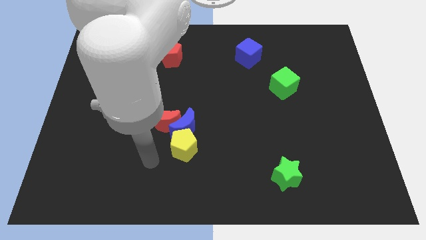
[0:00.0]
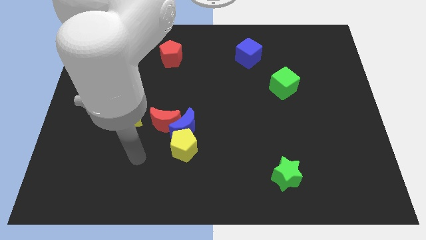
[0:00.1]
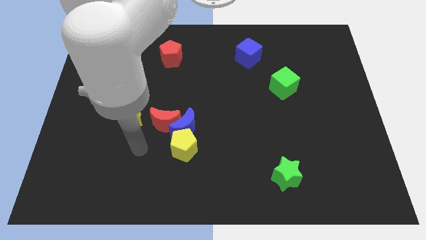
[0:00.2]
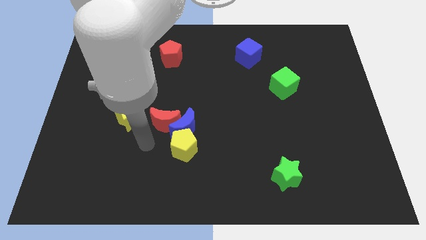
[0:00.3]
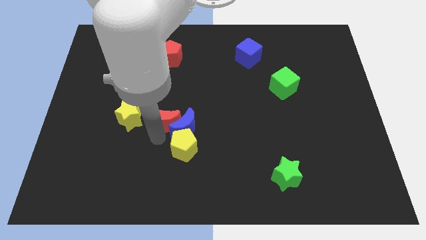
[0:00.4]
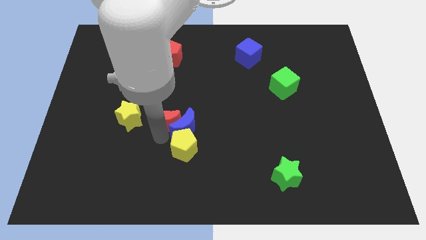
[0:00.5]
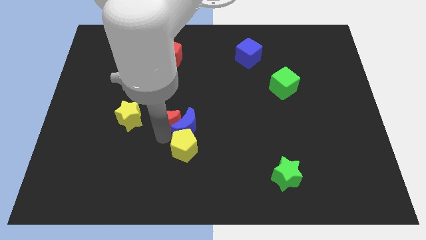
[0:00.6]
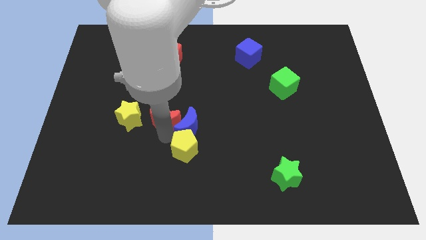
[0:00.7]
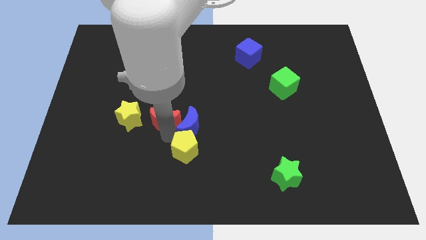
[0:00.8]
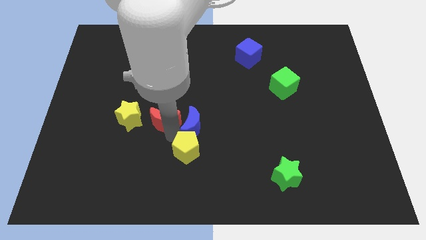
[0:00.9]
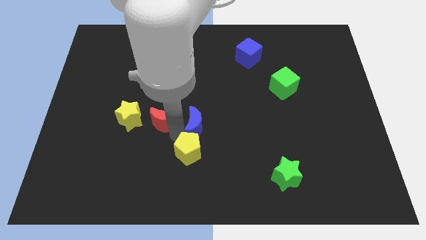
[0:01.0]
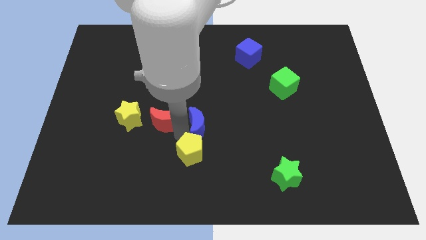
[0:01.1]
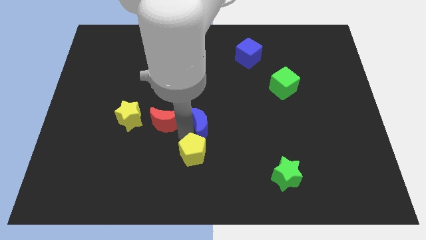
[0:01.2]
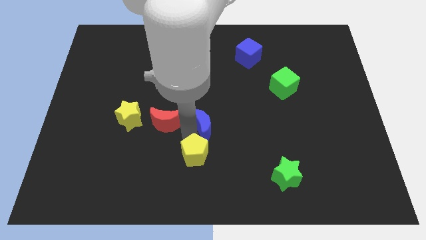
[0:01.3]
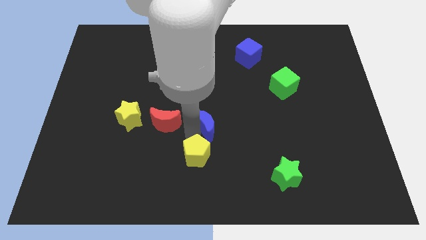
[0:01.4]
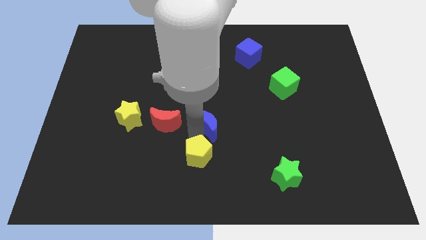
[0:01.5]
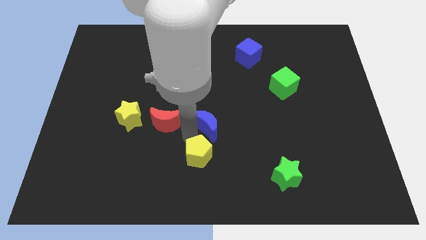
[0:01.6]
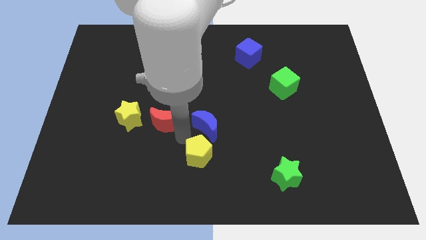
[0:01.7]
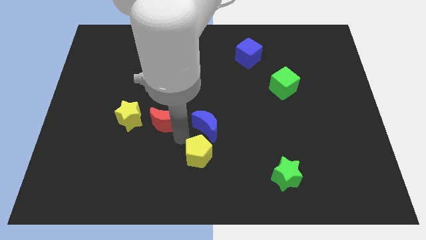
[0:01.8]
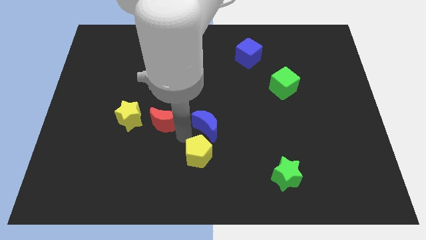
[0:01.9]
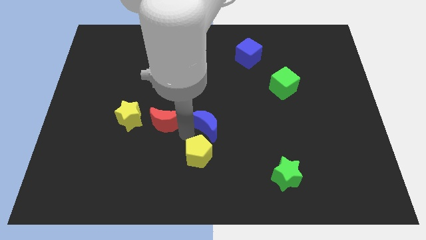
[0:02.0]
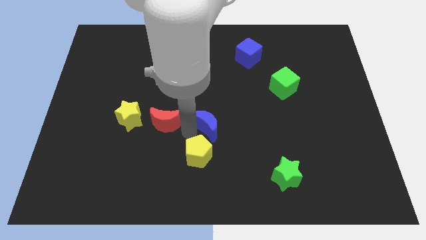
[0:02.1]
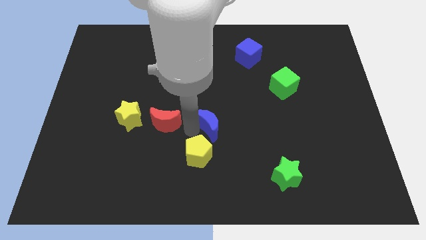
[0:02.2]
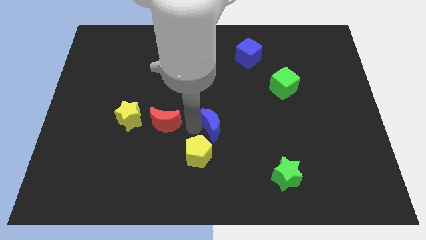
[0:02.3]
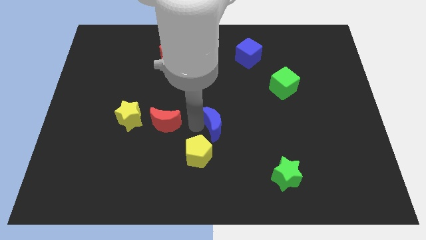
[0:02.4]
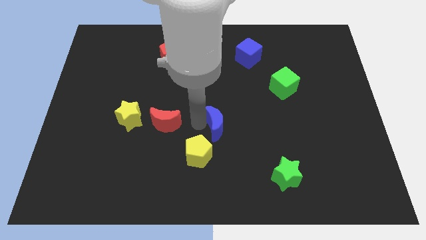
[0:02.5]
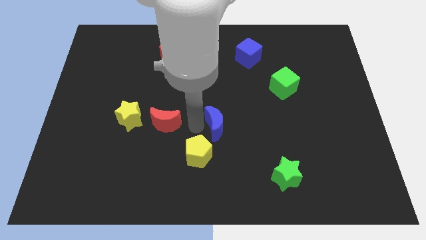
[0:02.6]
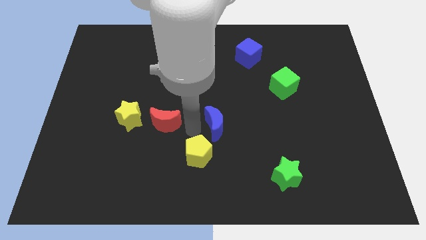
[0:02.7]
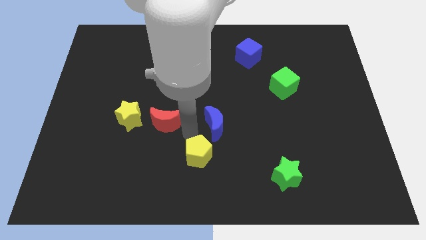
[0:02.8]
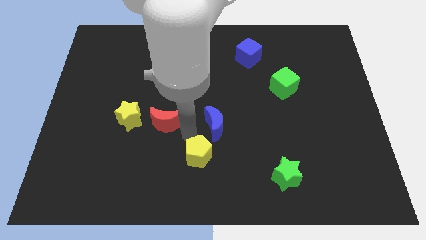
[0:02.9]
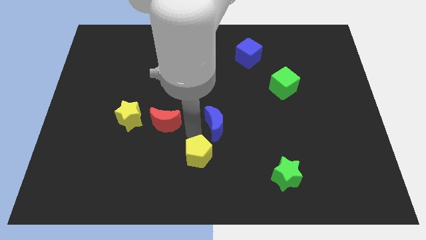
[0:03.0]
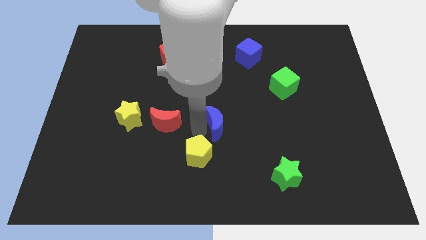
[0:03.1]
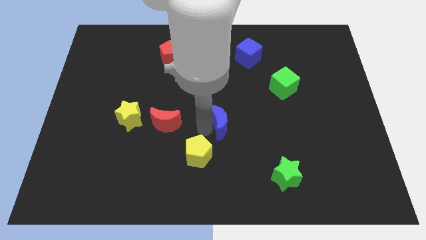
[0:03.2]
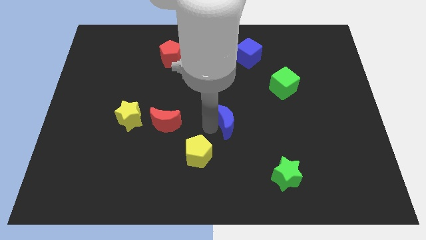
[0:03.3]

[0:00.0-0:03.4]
pull the blue moon apart from the red moon and yellow pentagon

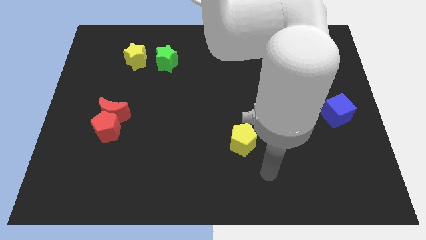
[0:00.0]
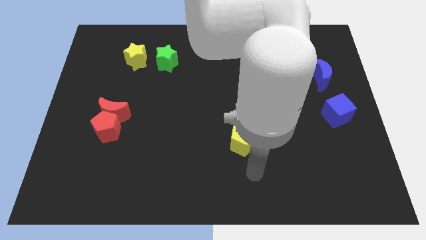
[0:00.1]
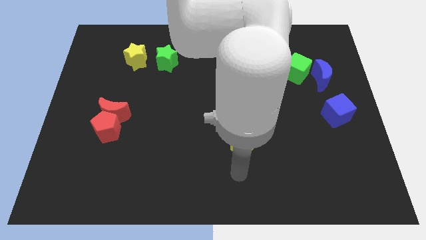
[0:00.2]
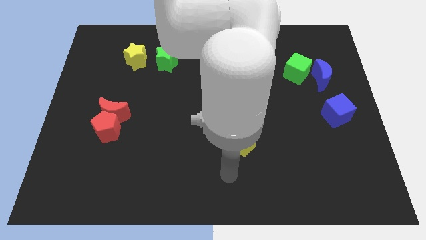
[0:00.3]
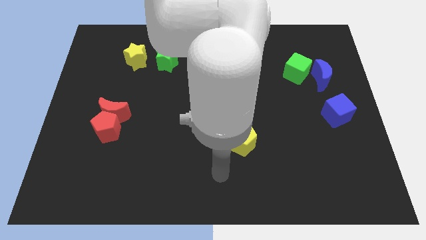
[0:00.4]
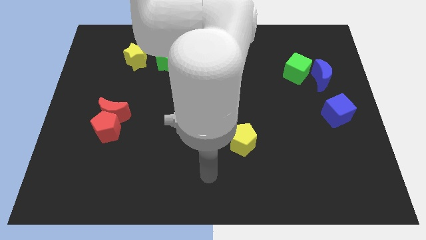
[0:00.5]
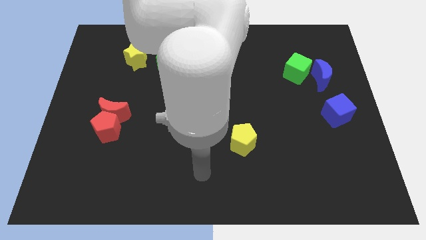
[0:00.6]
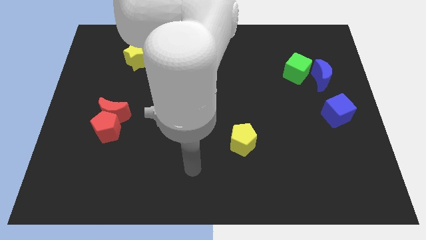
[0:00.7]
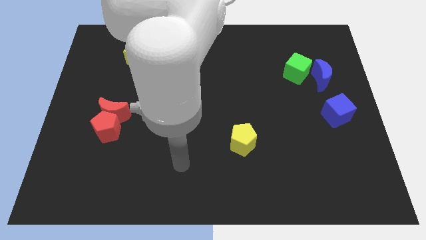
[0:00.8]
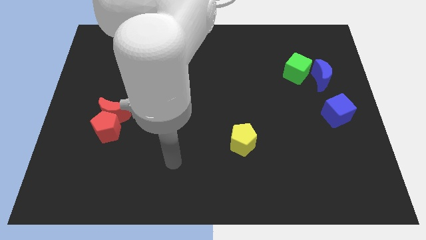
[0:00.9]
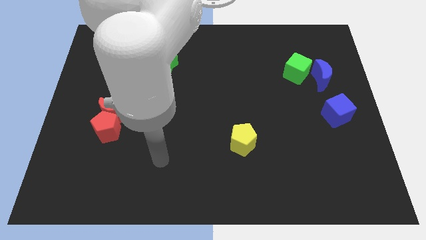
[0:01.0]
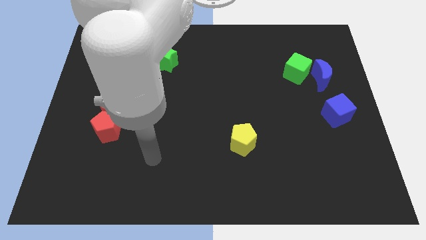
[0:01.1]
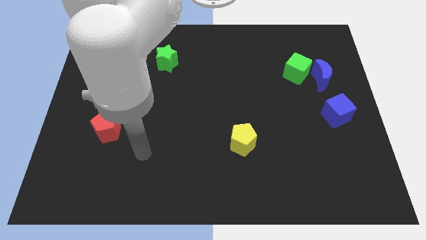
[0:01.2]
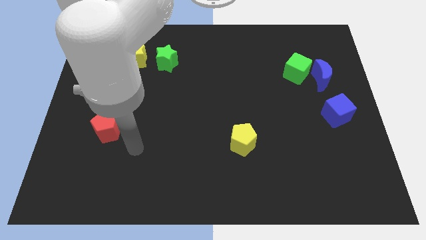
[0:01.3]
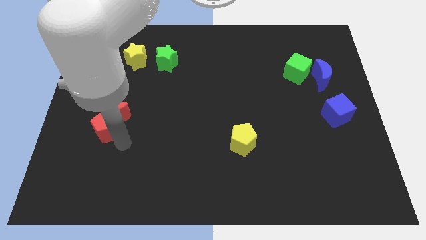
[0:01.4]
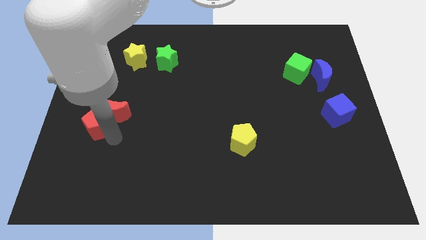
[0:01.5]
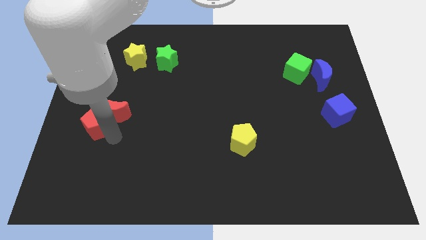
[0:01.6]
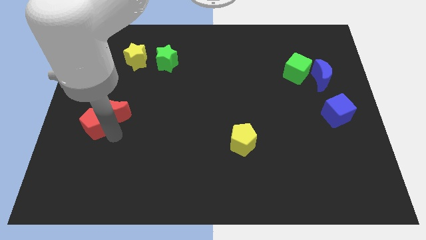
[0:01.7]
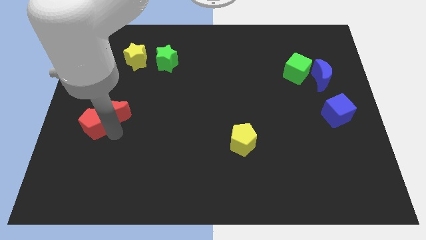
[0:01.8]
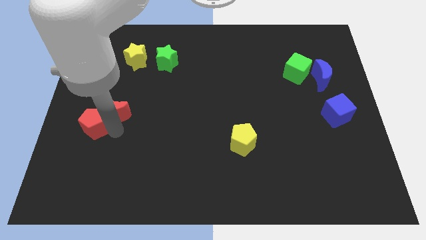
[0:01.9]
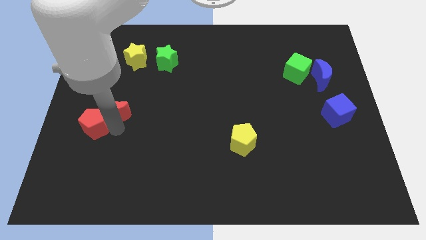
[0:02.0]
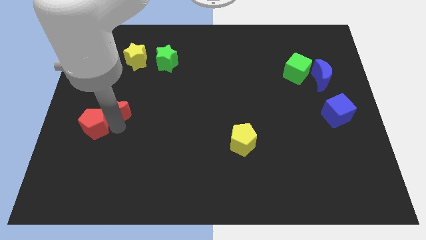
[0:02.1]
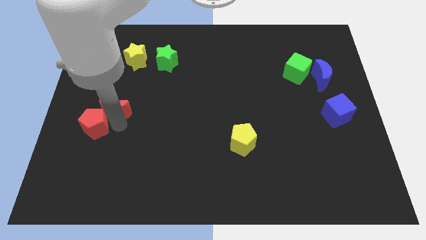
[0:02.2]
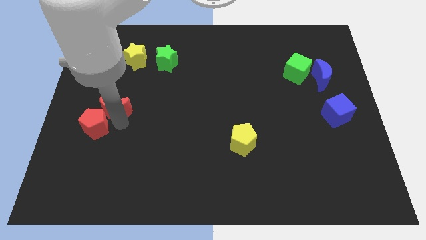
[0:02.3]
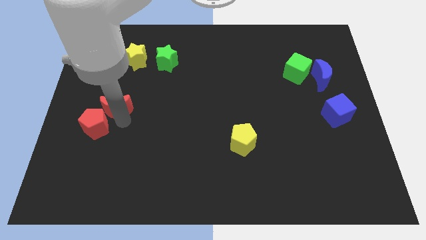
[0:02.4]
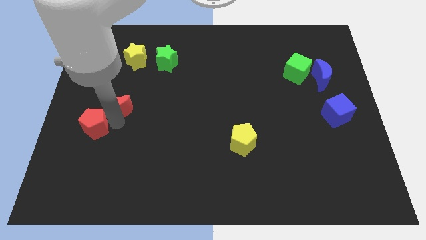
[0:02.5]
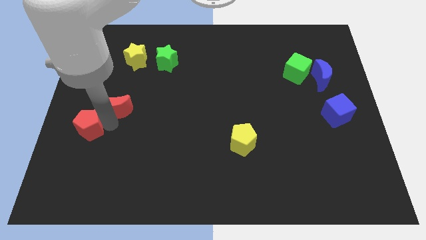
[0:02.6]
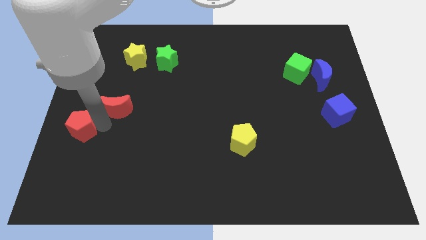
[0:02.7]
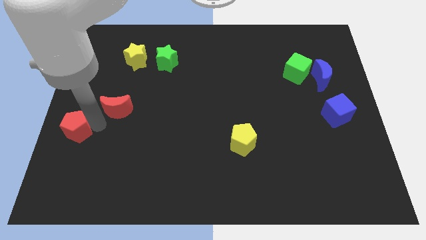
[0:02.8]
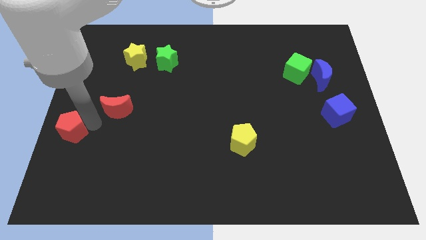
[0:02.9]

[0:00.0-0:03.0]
move the red moon away from the red pentagon

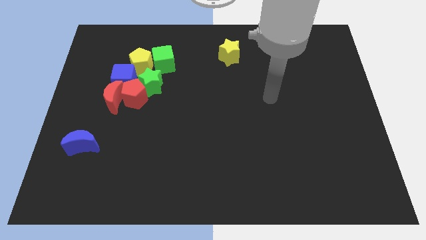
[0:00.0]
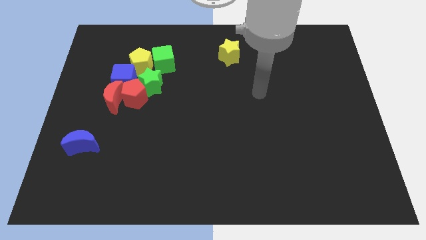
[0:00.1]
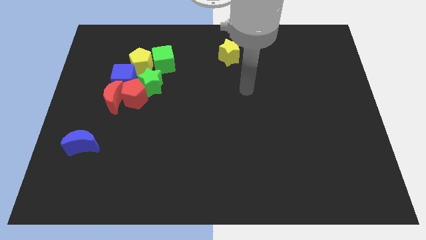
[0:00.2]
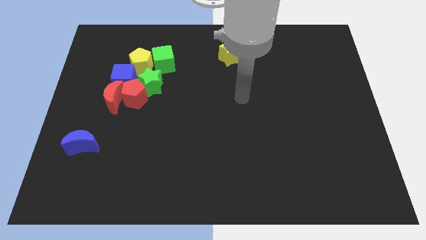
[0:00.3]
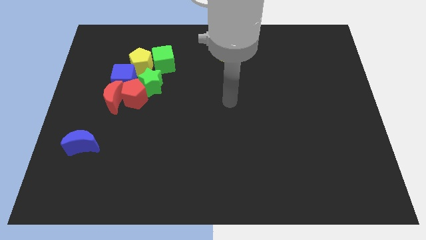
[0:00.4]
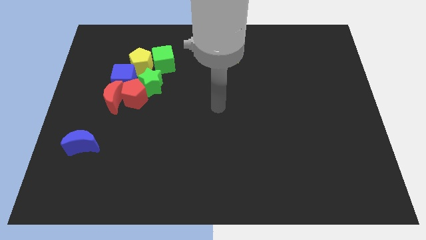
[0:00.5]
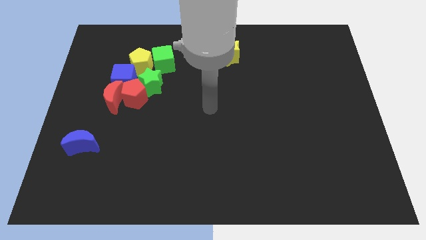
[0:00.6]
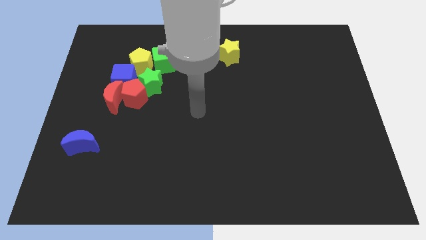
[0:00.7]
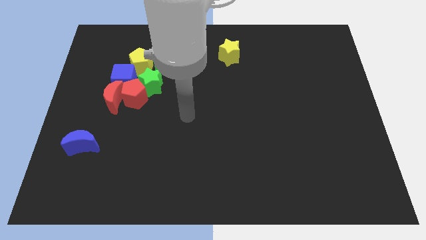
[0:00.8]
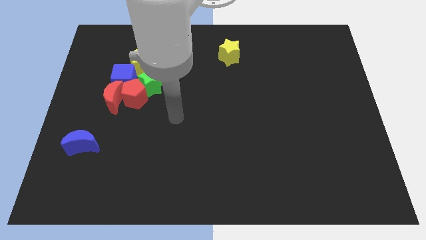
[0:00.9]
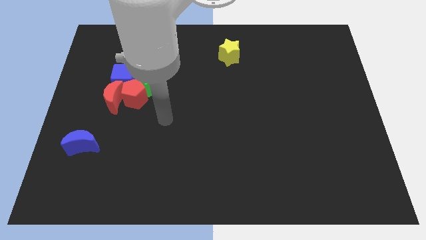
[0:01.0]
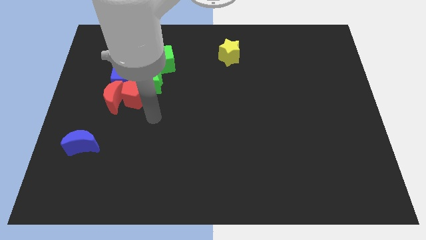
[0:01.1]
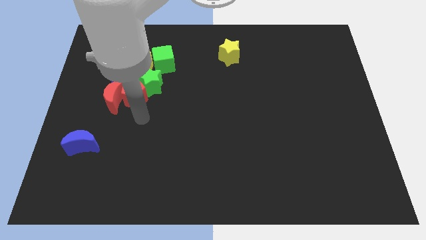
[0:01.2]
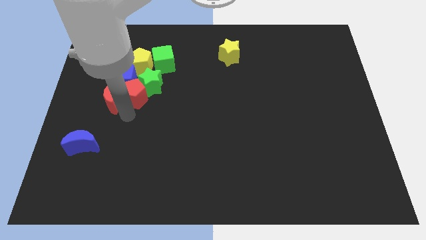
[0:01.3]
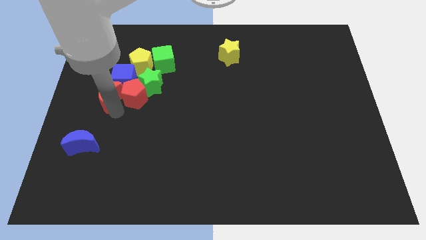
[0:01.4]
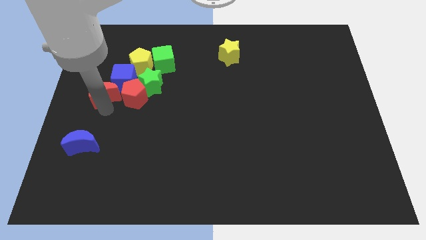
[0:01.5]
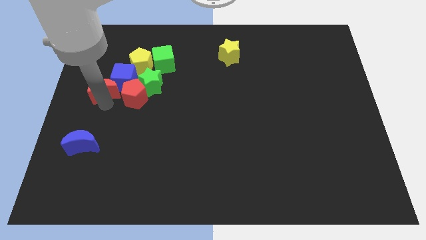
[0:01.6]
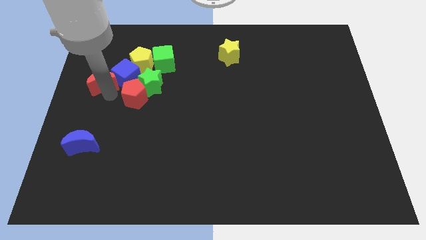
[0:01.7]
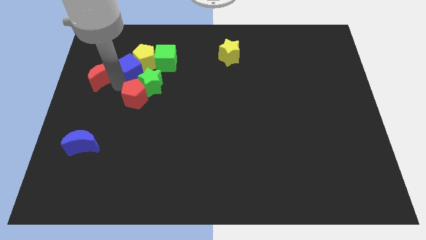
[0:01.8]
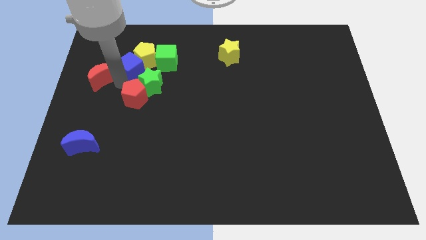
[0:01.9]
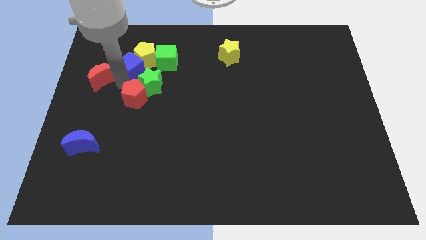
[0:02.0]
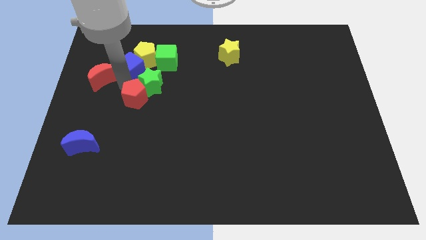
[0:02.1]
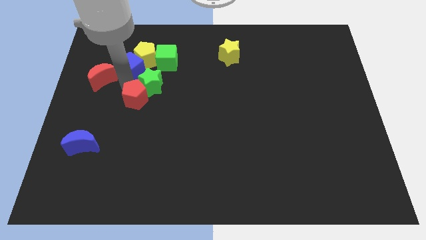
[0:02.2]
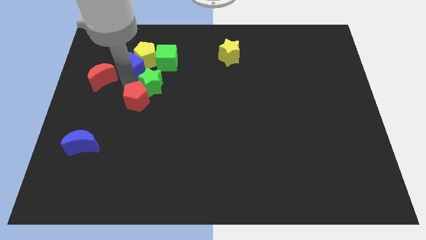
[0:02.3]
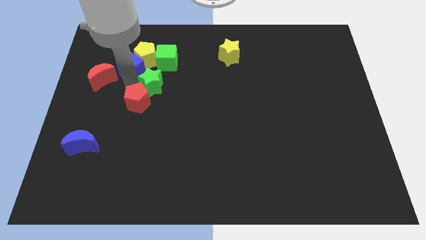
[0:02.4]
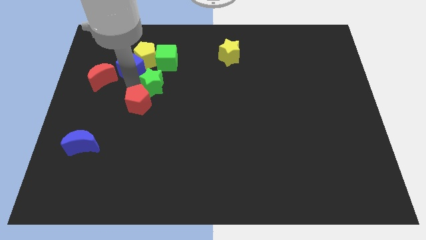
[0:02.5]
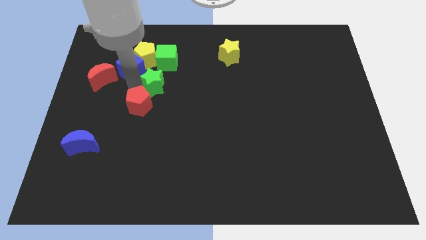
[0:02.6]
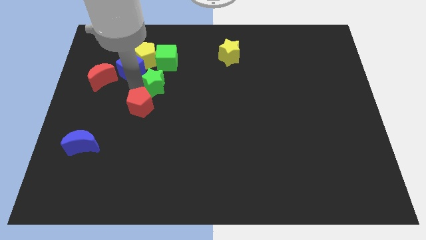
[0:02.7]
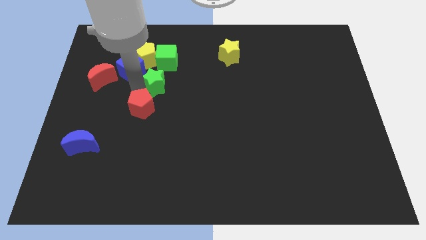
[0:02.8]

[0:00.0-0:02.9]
pull the red pentagon apart from the red moon, green star, and blue cube
